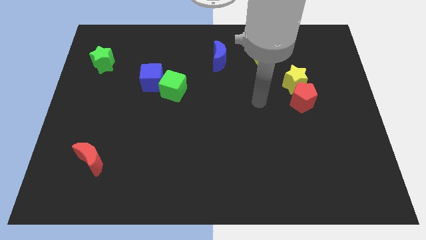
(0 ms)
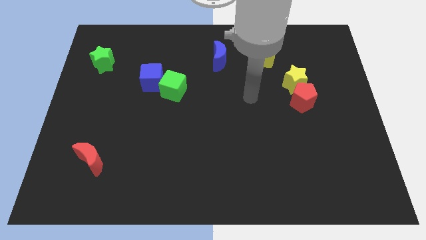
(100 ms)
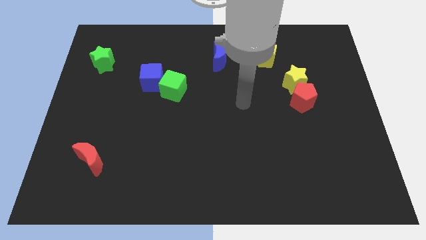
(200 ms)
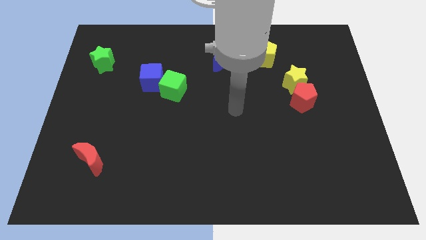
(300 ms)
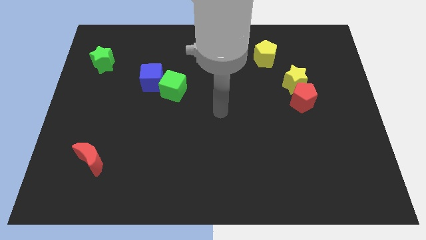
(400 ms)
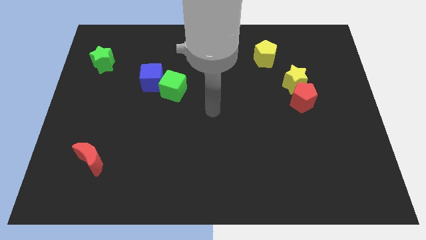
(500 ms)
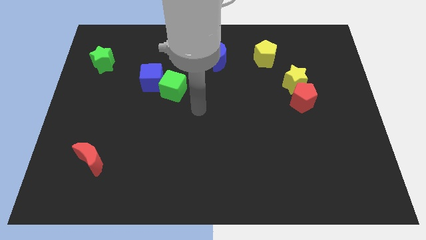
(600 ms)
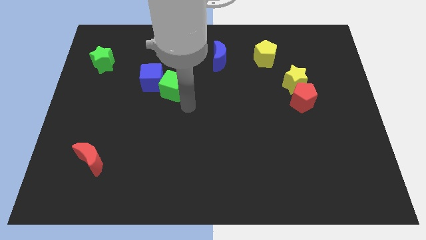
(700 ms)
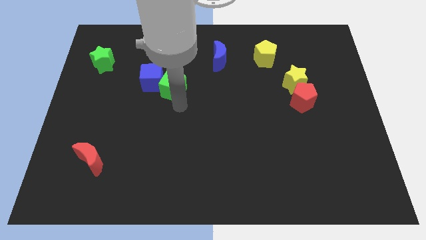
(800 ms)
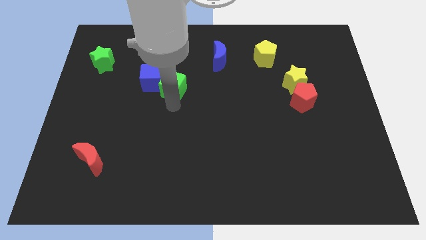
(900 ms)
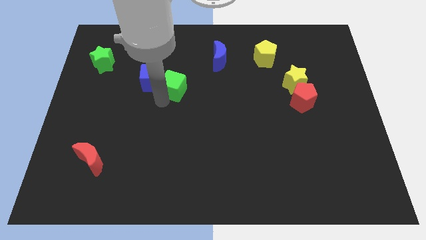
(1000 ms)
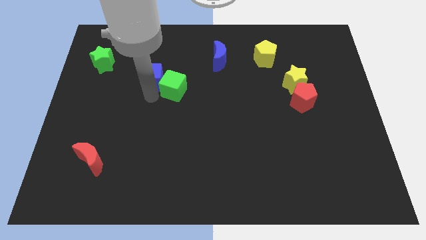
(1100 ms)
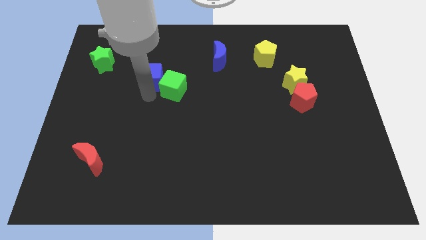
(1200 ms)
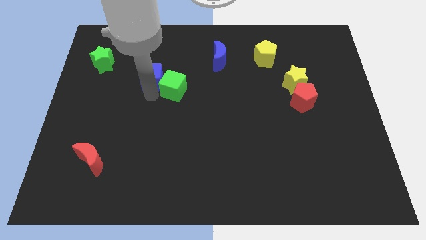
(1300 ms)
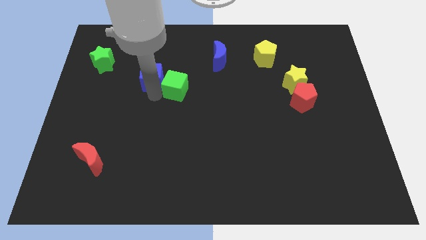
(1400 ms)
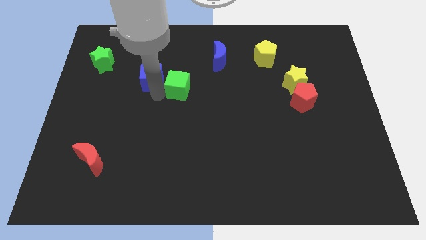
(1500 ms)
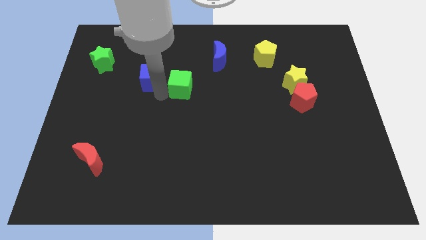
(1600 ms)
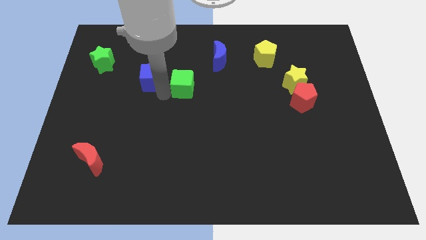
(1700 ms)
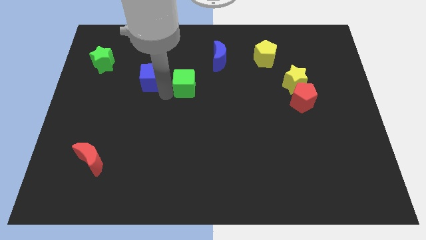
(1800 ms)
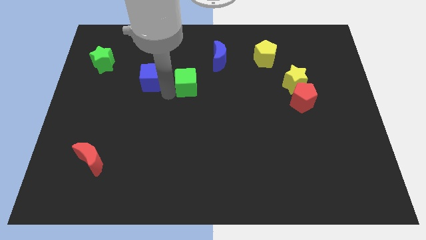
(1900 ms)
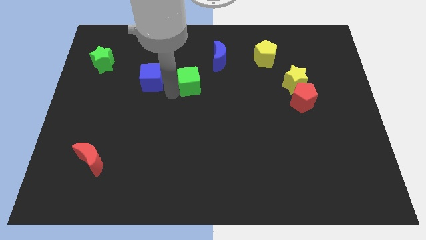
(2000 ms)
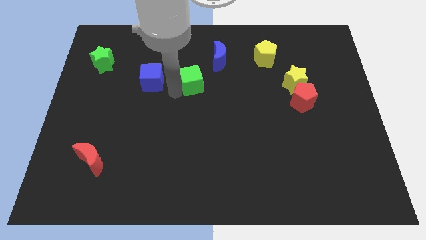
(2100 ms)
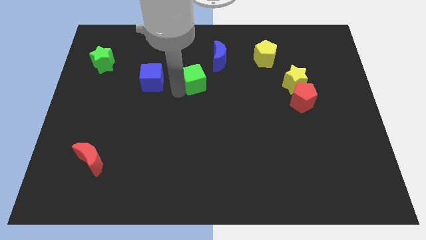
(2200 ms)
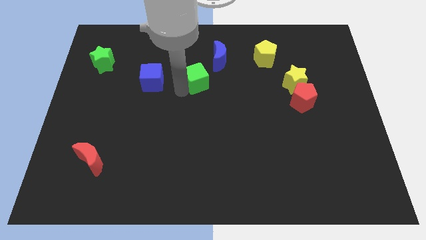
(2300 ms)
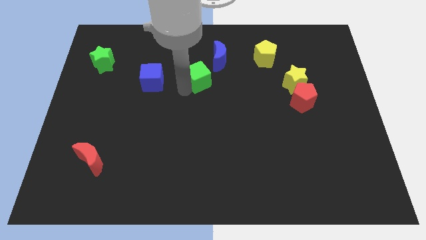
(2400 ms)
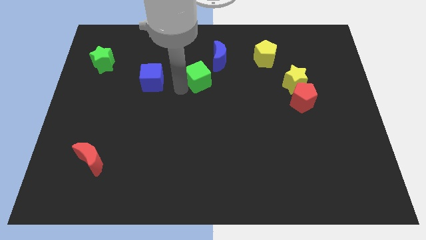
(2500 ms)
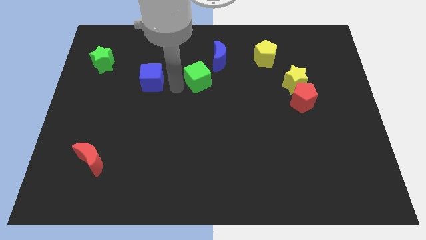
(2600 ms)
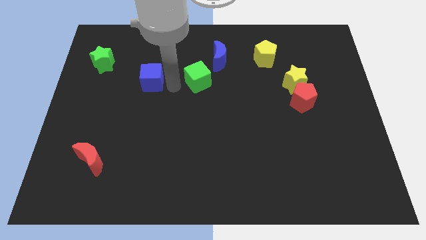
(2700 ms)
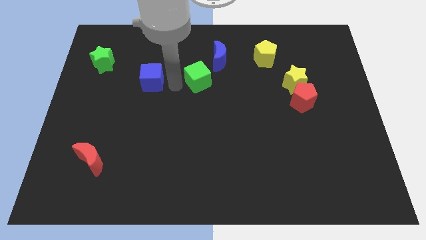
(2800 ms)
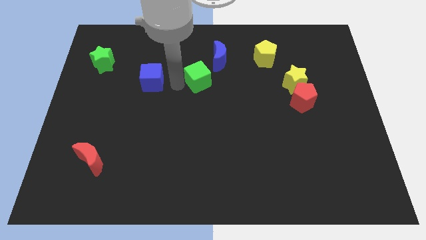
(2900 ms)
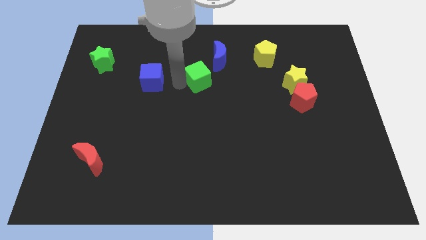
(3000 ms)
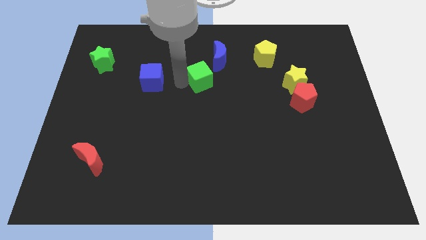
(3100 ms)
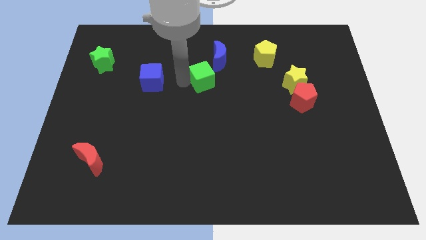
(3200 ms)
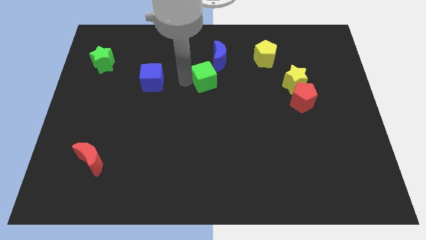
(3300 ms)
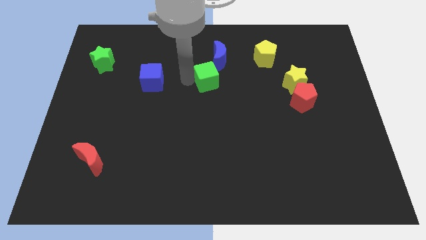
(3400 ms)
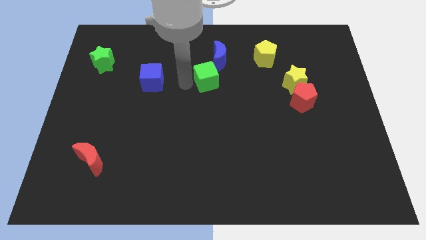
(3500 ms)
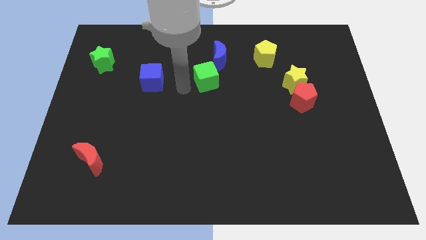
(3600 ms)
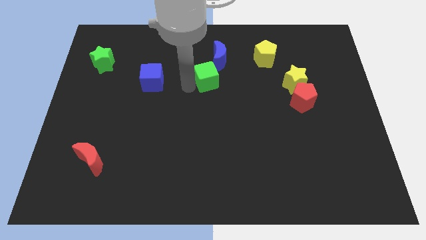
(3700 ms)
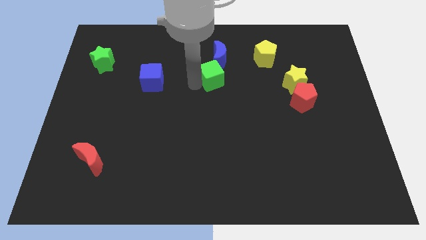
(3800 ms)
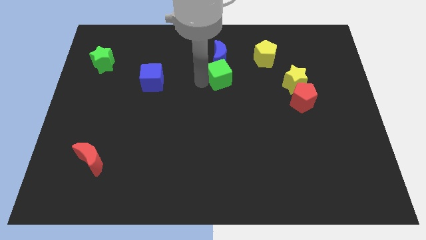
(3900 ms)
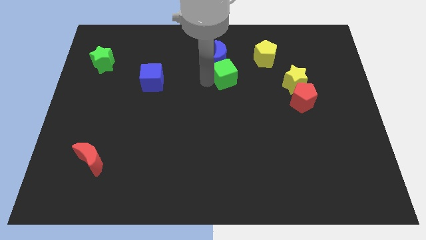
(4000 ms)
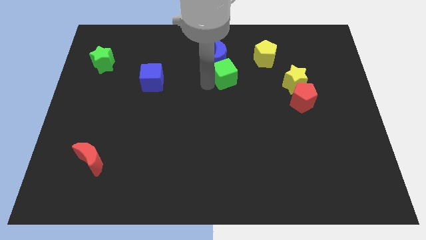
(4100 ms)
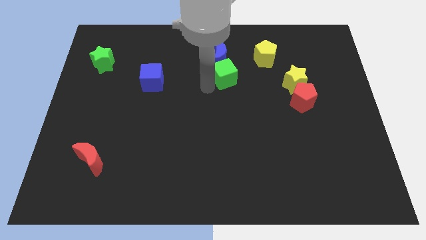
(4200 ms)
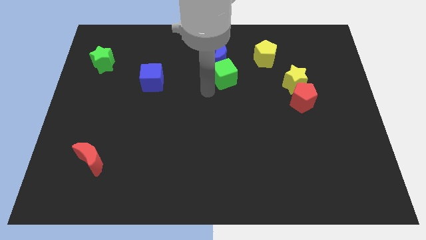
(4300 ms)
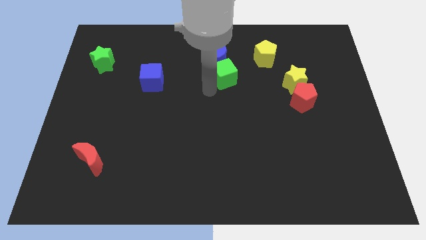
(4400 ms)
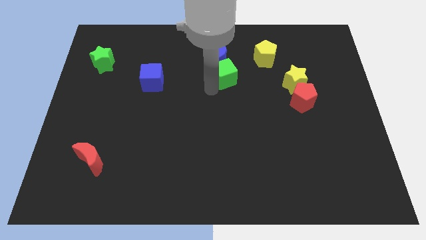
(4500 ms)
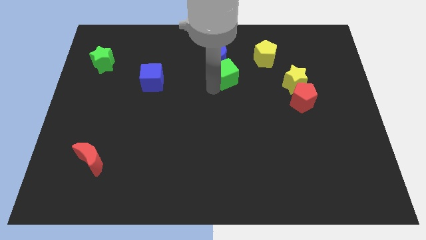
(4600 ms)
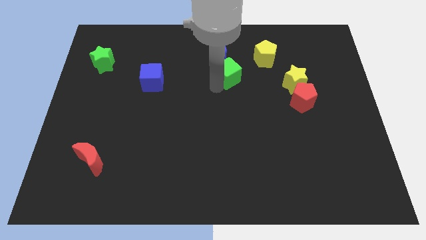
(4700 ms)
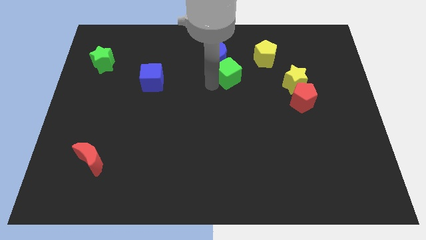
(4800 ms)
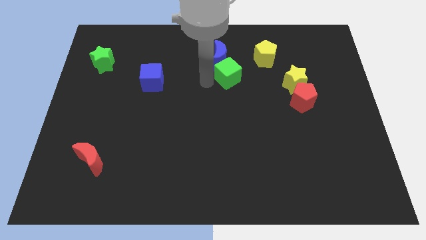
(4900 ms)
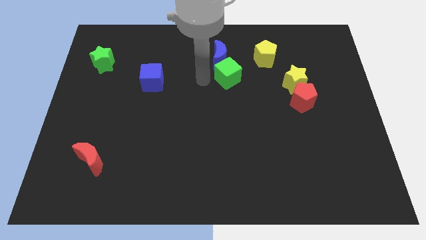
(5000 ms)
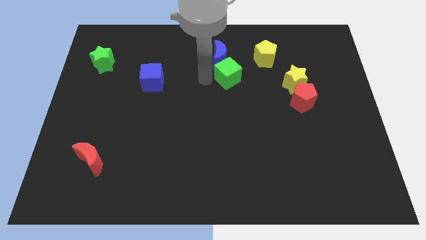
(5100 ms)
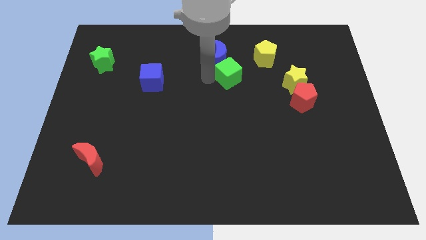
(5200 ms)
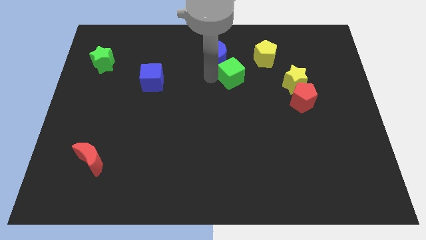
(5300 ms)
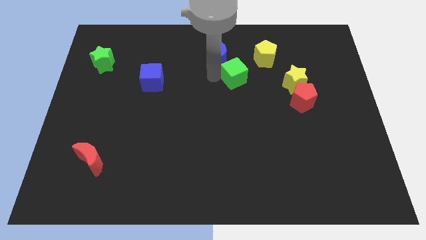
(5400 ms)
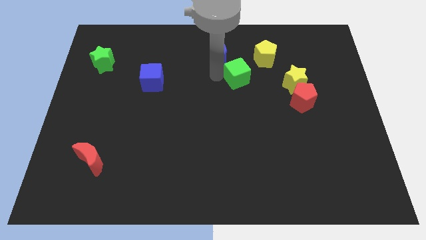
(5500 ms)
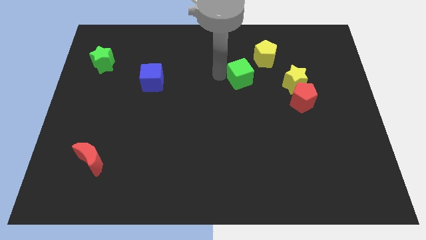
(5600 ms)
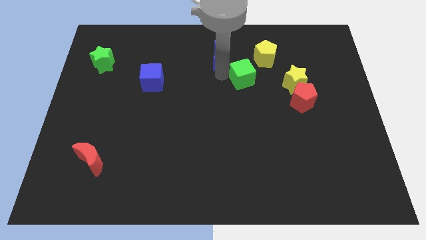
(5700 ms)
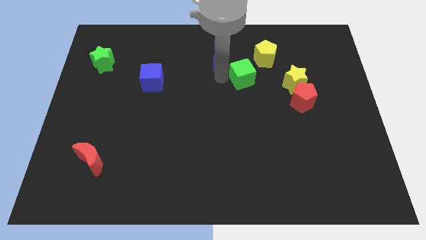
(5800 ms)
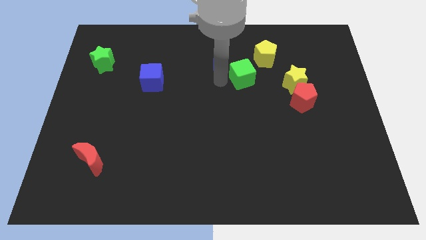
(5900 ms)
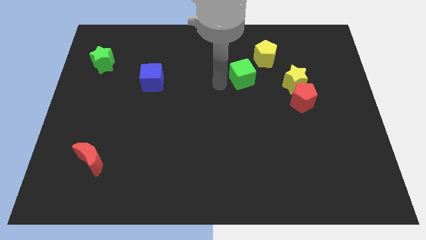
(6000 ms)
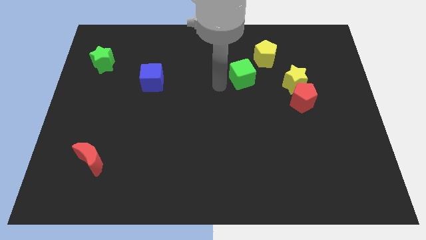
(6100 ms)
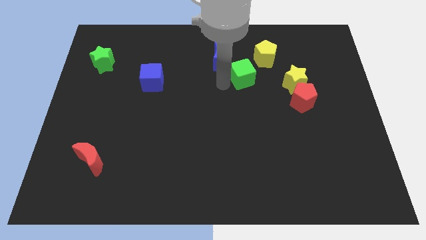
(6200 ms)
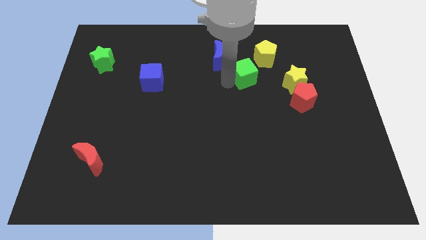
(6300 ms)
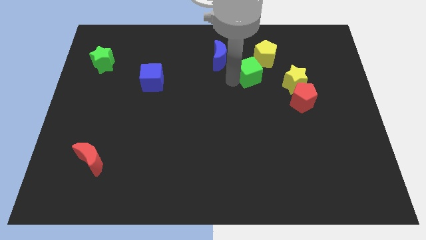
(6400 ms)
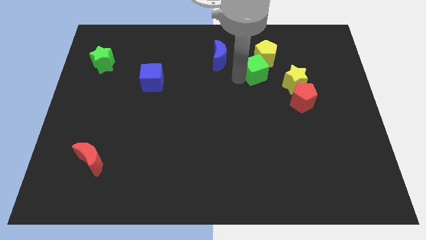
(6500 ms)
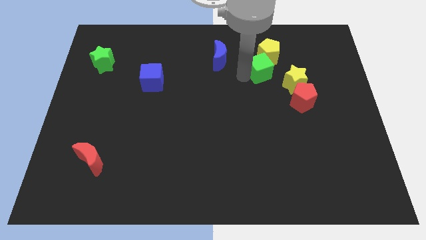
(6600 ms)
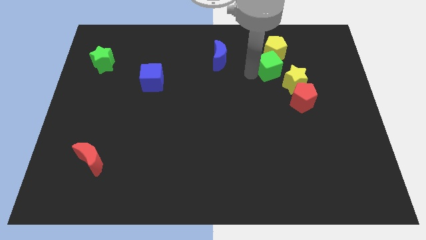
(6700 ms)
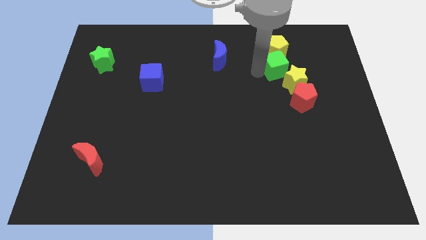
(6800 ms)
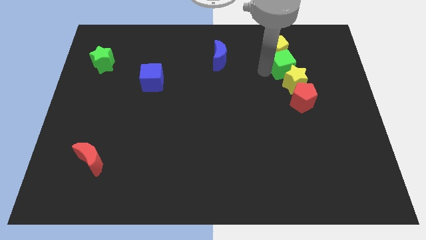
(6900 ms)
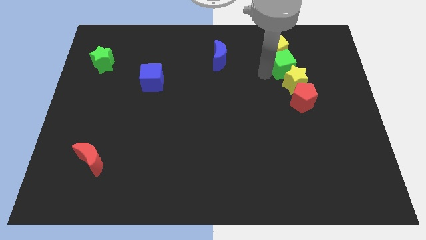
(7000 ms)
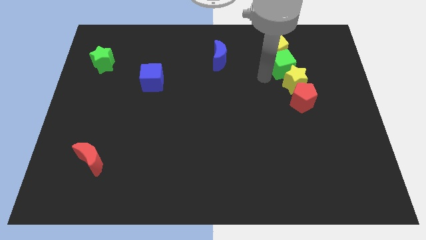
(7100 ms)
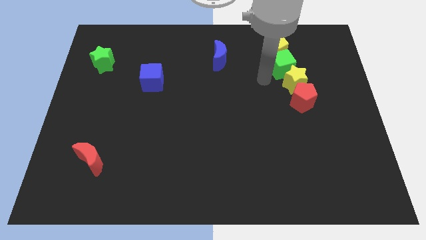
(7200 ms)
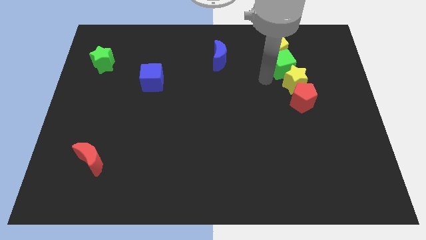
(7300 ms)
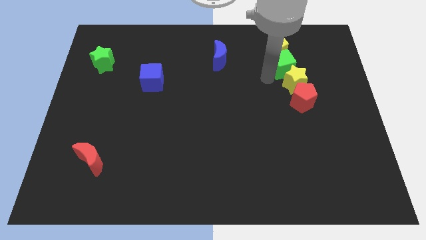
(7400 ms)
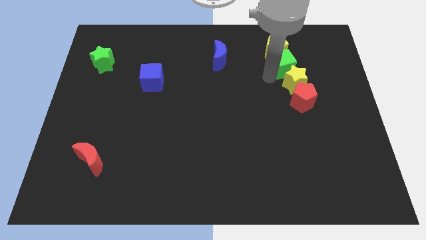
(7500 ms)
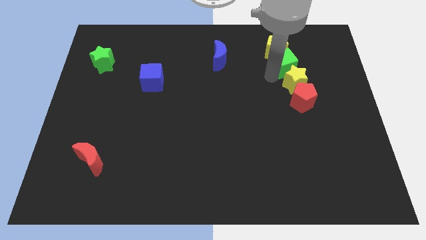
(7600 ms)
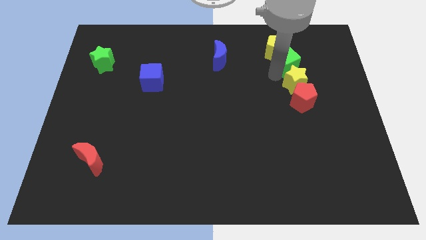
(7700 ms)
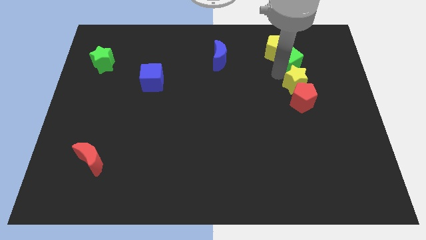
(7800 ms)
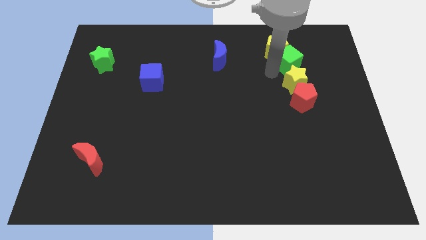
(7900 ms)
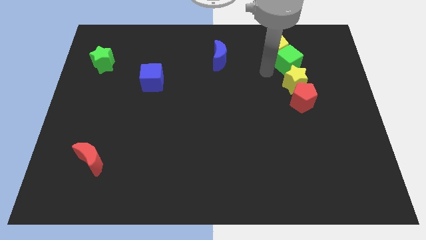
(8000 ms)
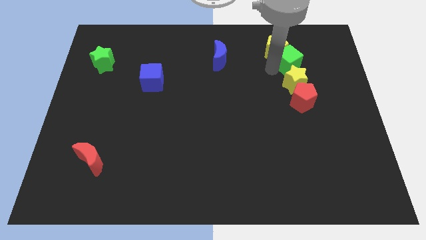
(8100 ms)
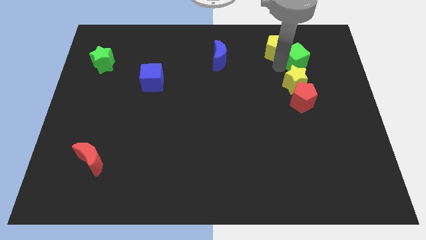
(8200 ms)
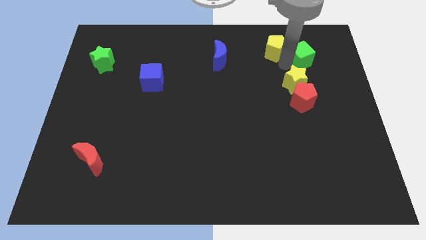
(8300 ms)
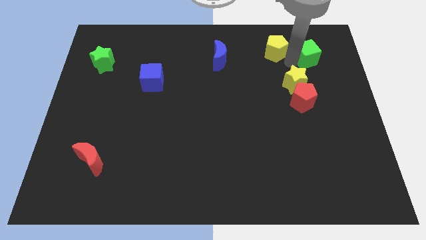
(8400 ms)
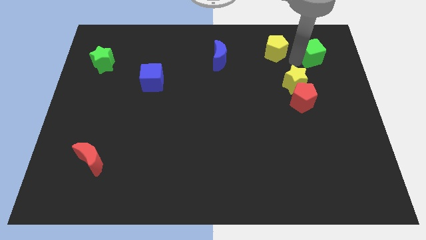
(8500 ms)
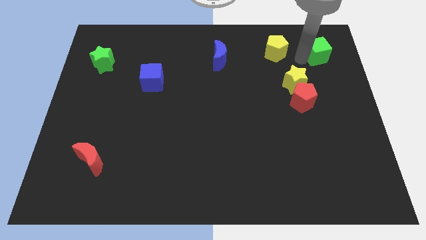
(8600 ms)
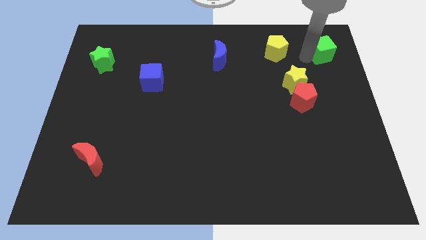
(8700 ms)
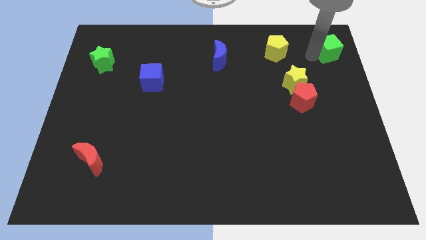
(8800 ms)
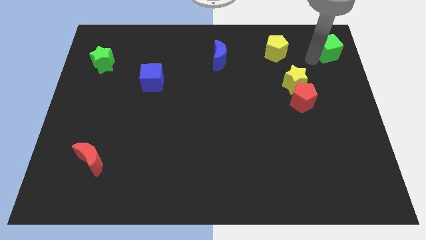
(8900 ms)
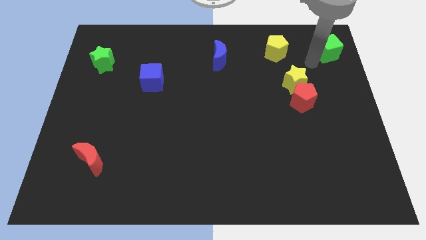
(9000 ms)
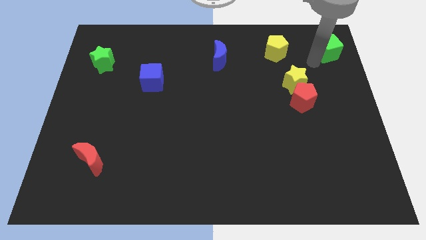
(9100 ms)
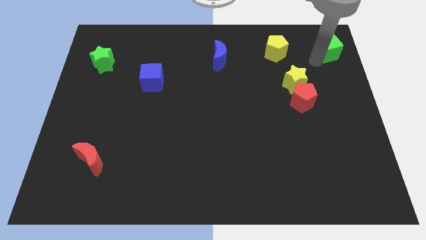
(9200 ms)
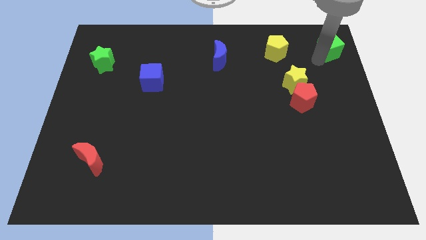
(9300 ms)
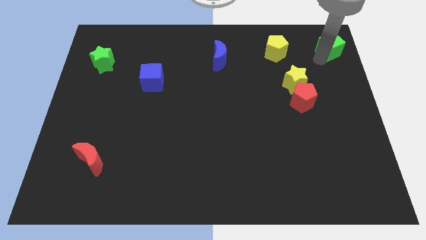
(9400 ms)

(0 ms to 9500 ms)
put the green cube to the top right
